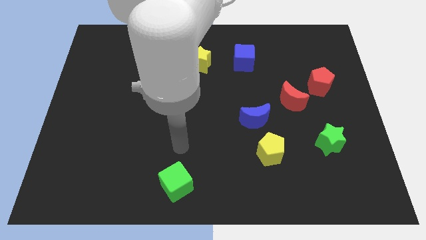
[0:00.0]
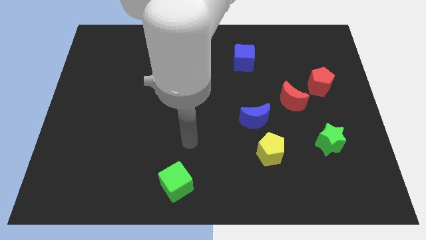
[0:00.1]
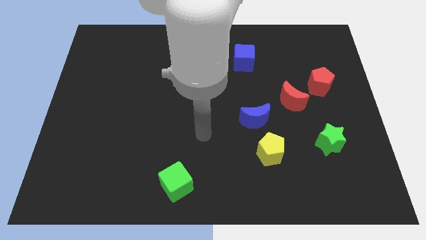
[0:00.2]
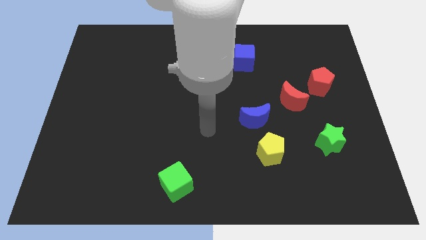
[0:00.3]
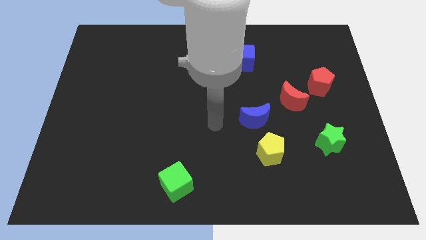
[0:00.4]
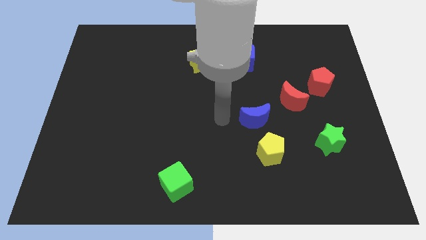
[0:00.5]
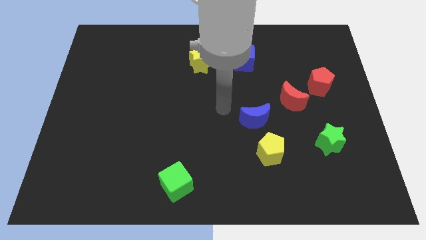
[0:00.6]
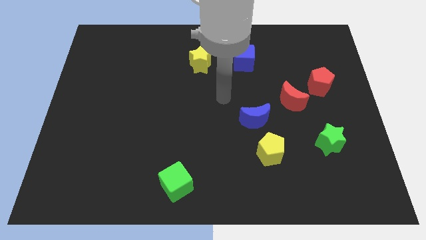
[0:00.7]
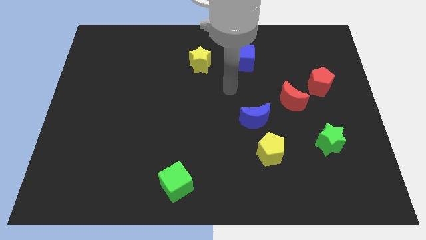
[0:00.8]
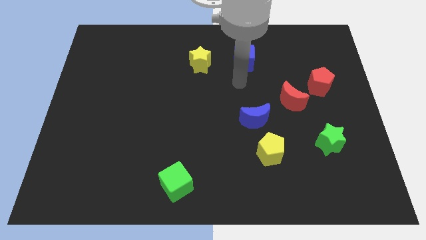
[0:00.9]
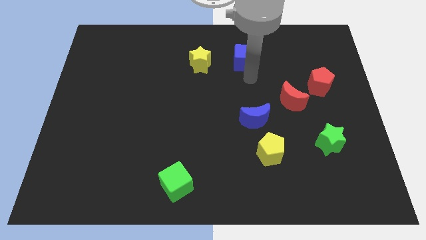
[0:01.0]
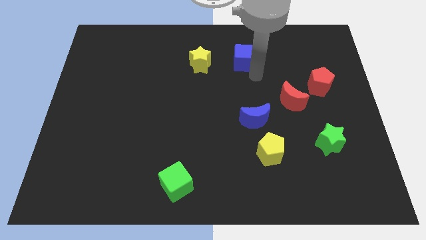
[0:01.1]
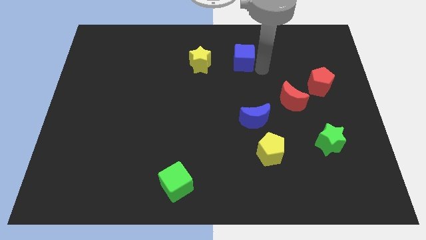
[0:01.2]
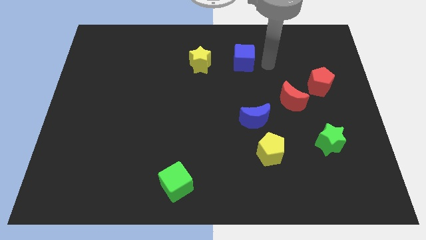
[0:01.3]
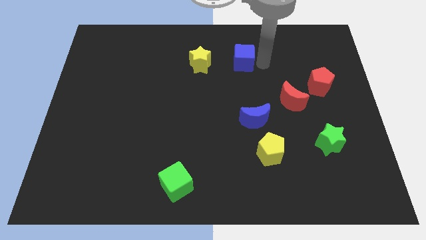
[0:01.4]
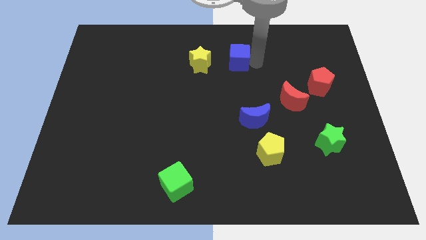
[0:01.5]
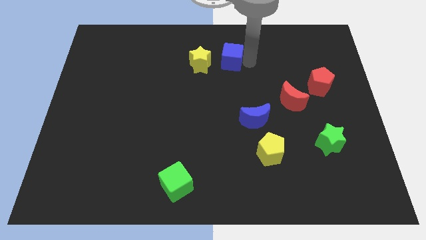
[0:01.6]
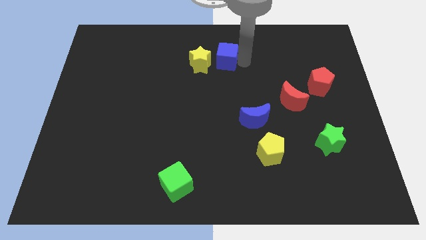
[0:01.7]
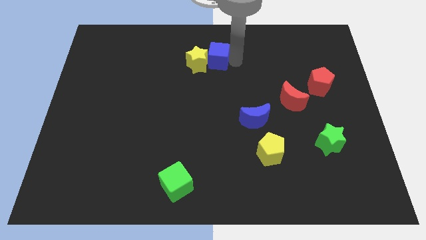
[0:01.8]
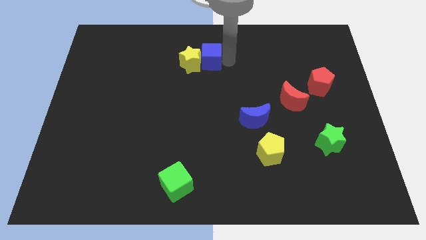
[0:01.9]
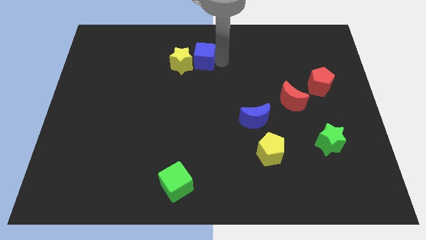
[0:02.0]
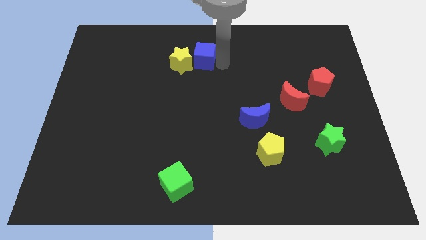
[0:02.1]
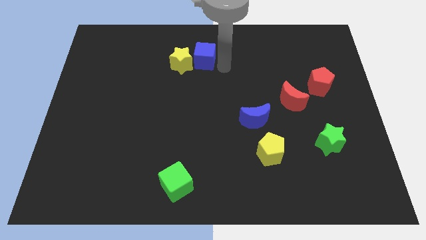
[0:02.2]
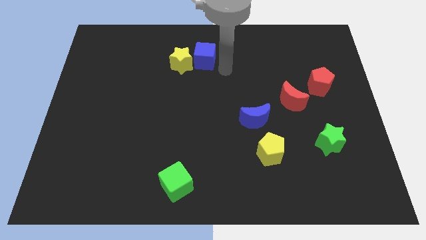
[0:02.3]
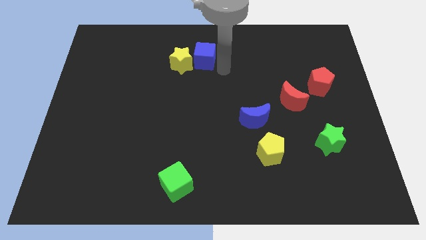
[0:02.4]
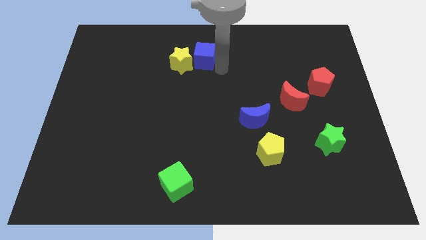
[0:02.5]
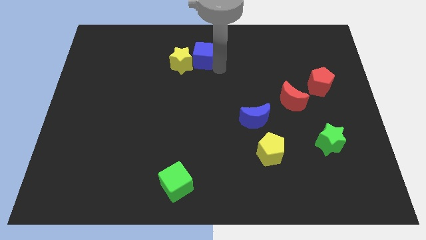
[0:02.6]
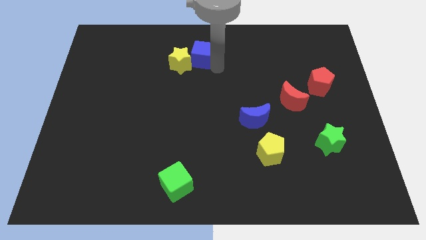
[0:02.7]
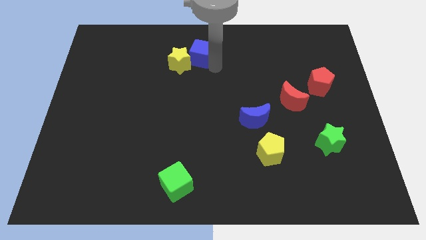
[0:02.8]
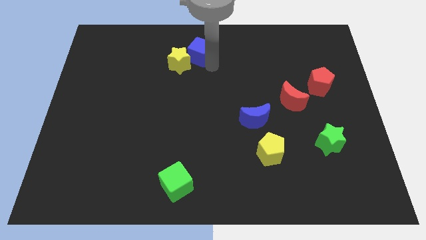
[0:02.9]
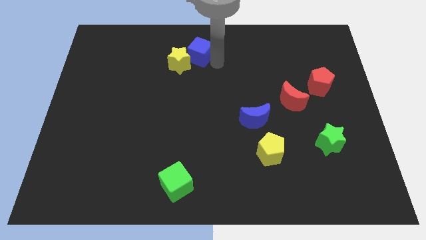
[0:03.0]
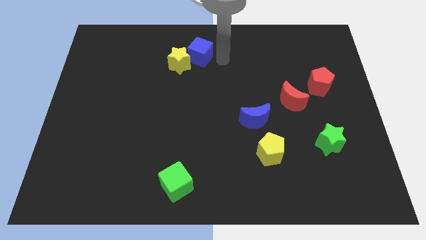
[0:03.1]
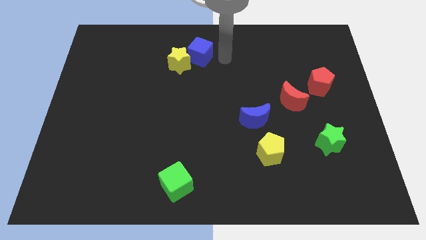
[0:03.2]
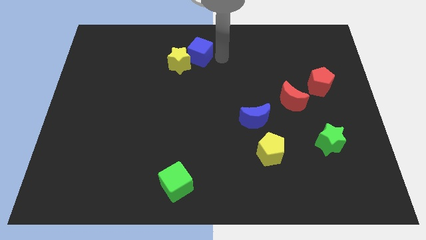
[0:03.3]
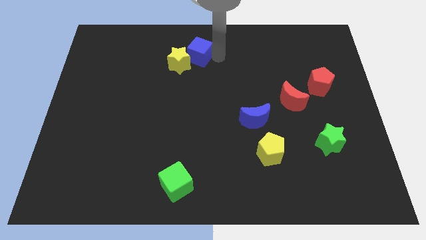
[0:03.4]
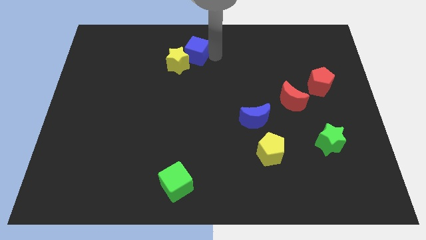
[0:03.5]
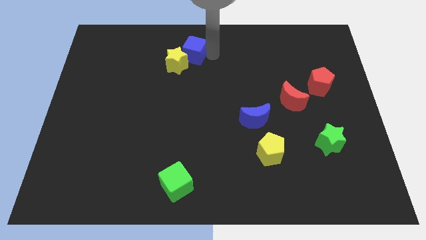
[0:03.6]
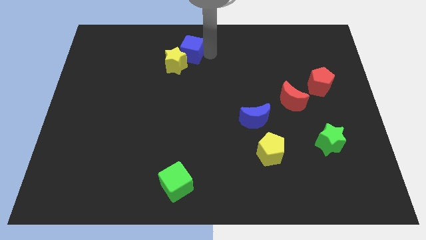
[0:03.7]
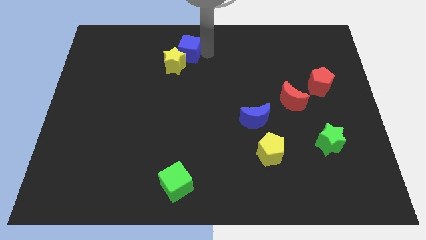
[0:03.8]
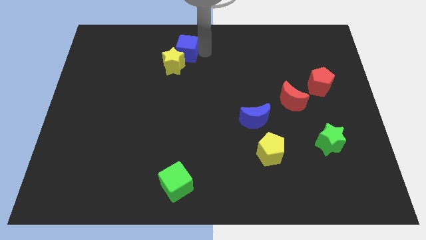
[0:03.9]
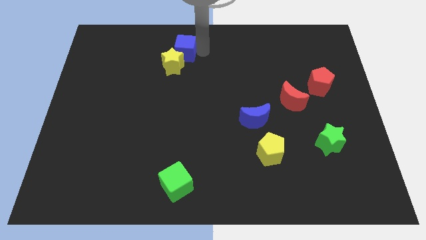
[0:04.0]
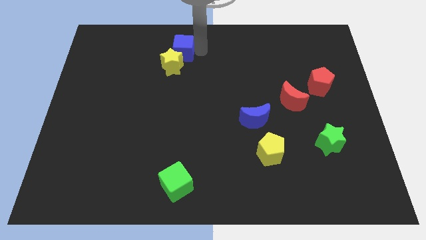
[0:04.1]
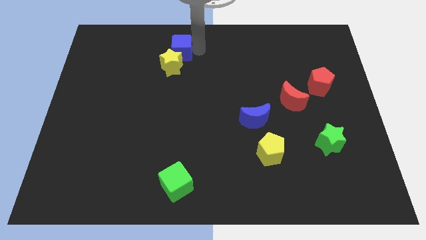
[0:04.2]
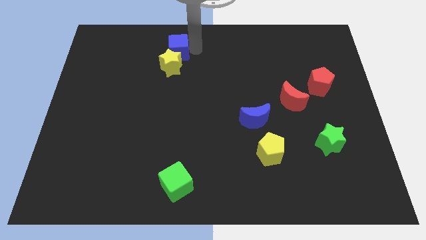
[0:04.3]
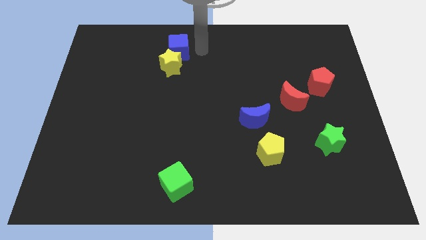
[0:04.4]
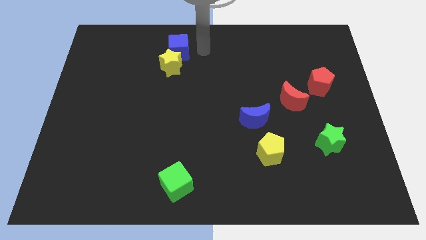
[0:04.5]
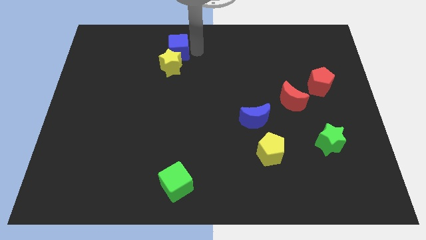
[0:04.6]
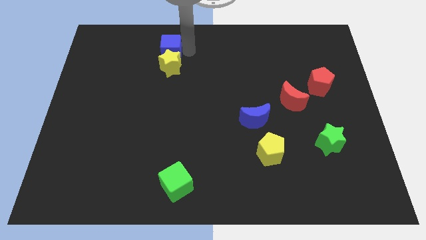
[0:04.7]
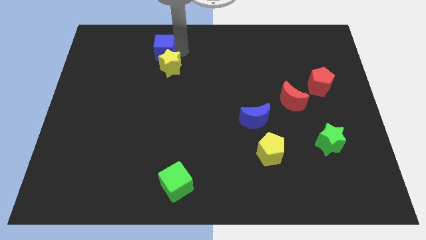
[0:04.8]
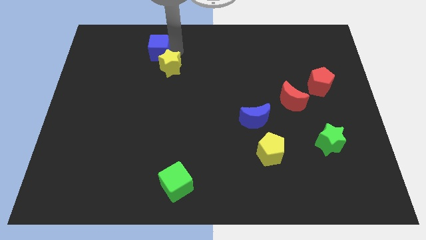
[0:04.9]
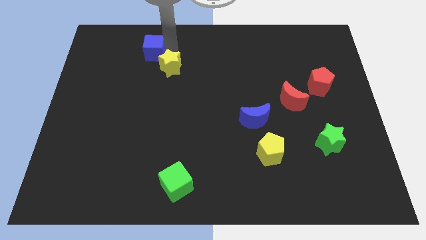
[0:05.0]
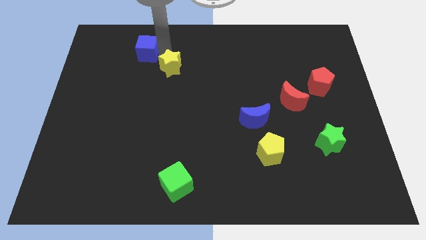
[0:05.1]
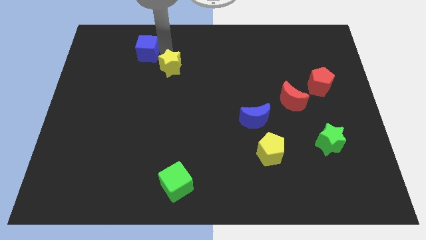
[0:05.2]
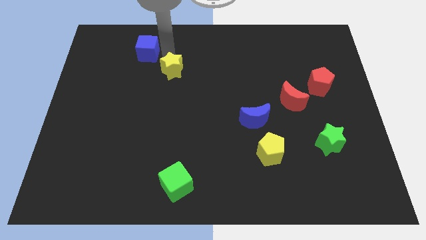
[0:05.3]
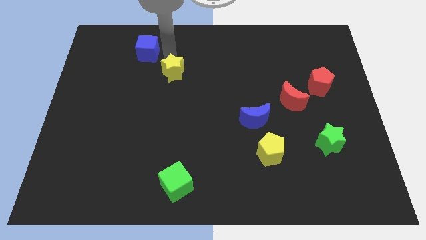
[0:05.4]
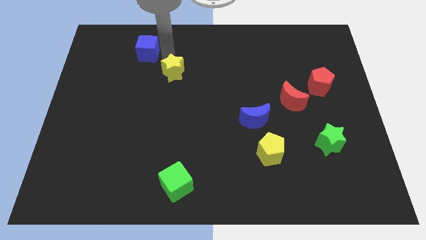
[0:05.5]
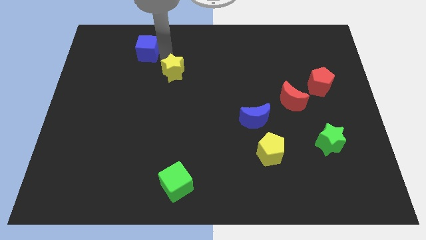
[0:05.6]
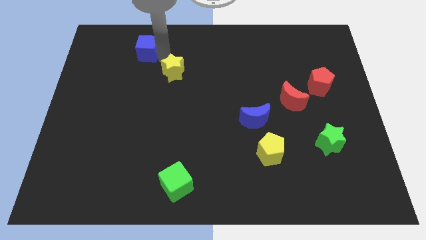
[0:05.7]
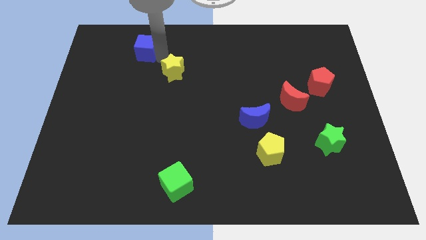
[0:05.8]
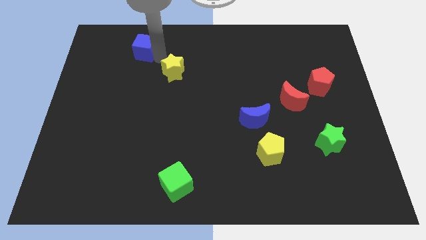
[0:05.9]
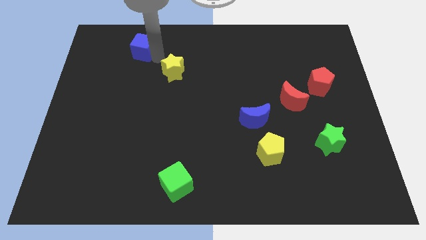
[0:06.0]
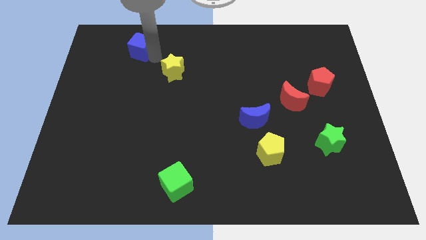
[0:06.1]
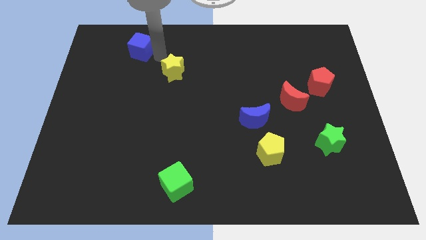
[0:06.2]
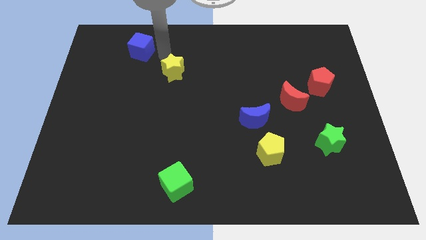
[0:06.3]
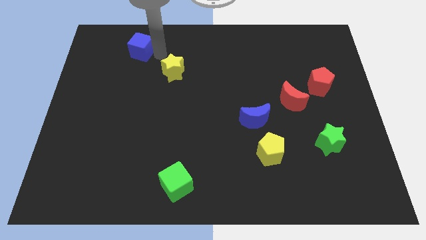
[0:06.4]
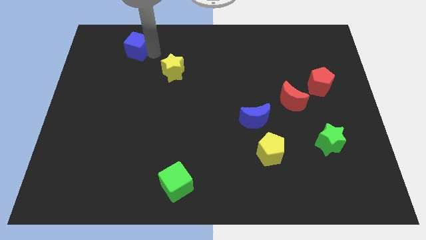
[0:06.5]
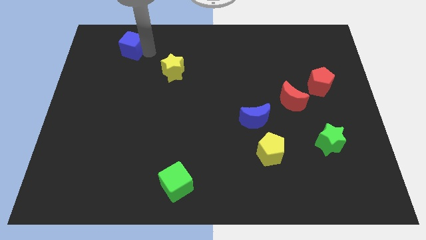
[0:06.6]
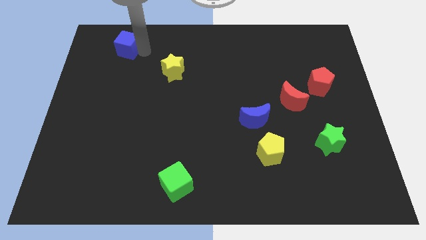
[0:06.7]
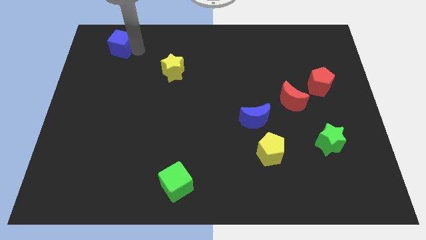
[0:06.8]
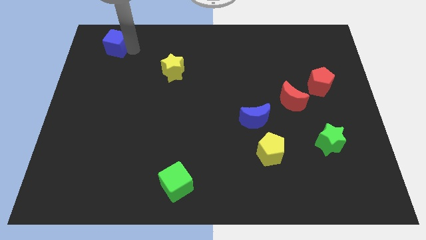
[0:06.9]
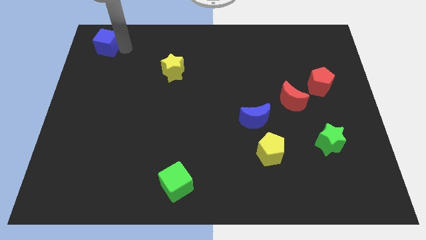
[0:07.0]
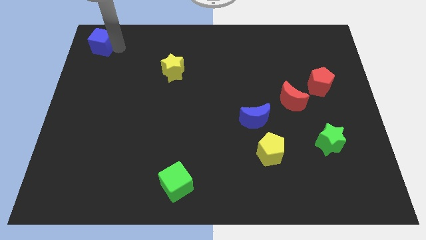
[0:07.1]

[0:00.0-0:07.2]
move the blue cube to the top left of the board
